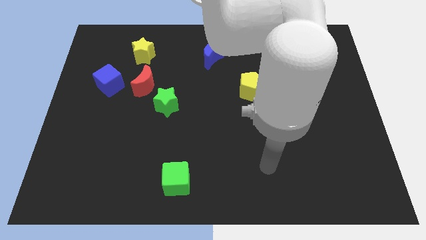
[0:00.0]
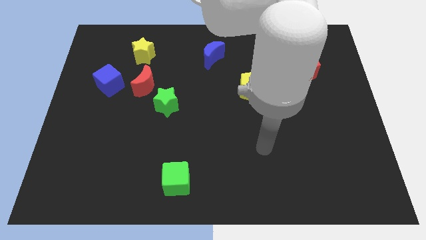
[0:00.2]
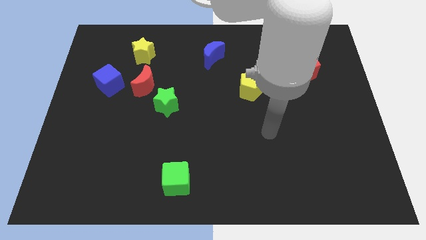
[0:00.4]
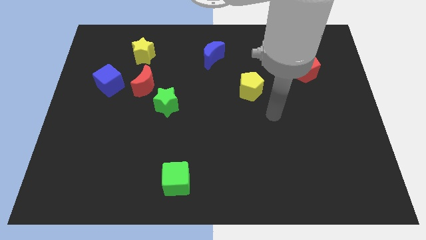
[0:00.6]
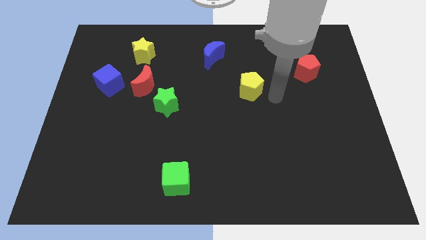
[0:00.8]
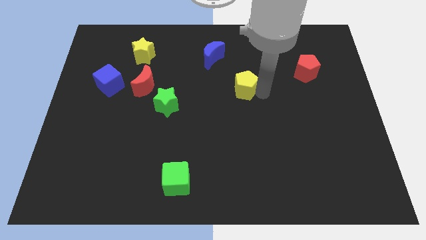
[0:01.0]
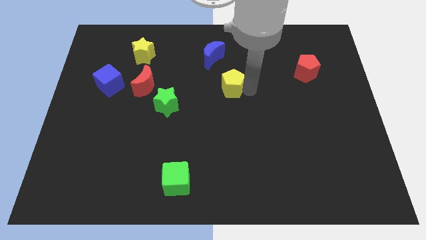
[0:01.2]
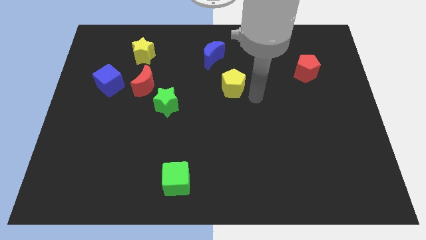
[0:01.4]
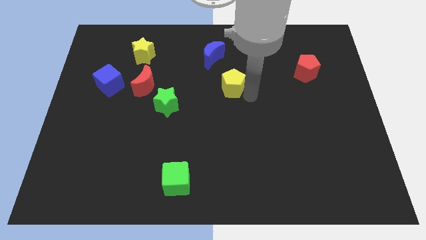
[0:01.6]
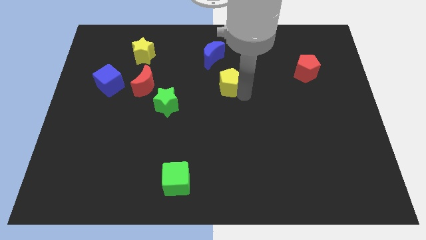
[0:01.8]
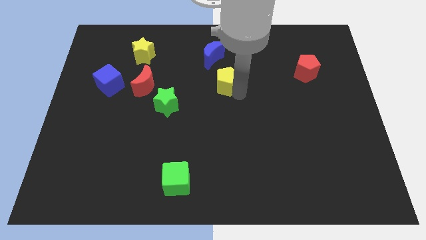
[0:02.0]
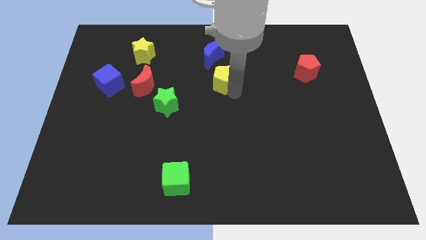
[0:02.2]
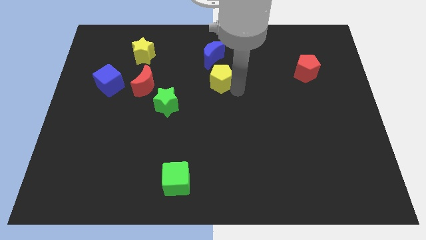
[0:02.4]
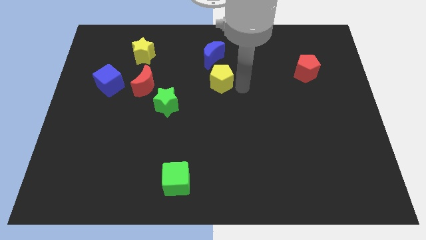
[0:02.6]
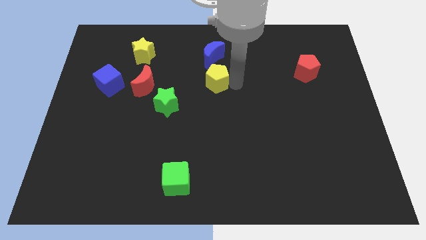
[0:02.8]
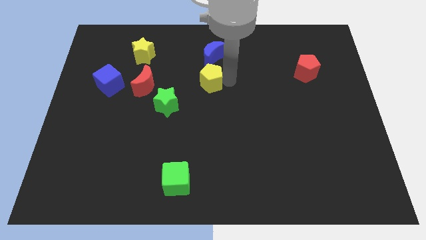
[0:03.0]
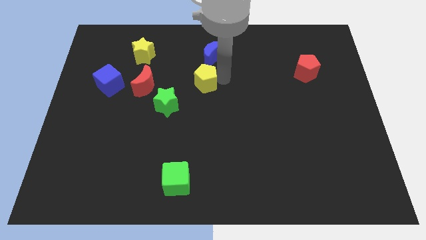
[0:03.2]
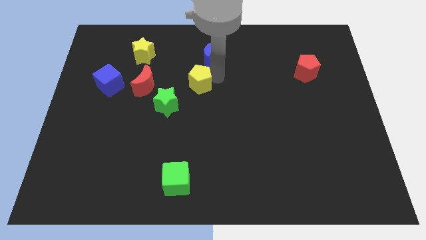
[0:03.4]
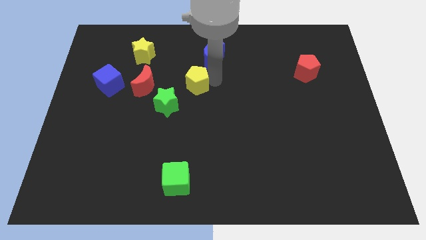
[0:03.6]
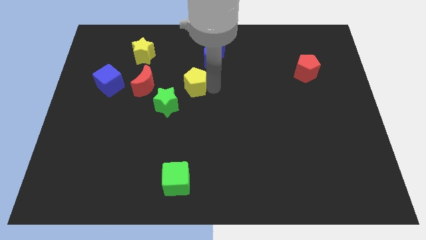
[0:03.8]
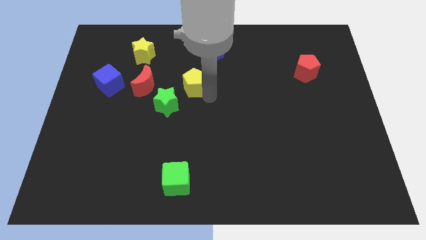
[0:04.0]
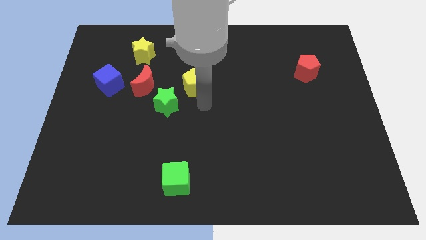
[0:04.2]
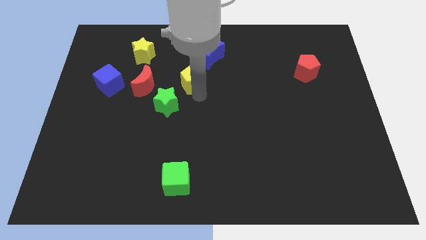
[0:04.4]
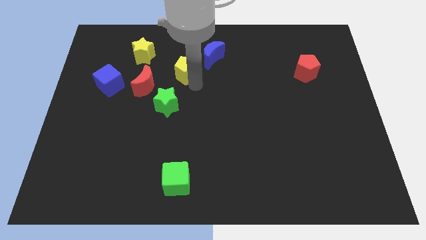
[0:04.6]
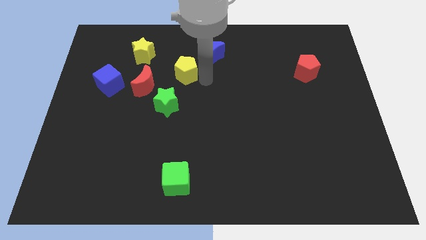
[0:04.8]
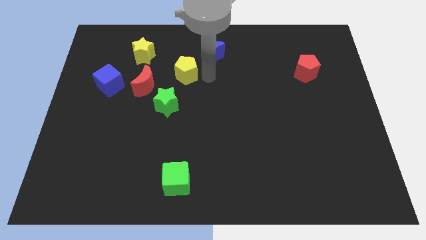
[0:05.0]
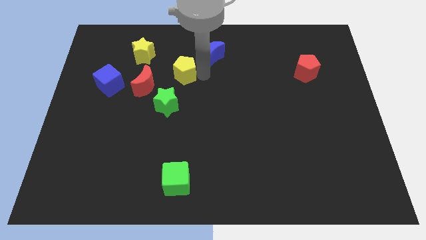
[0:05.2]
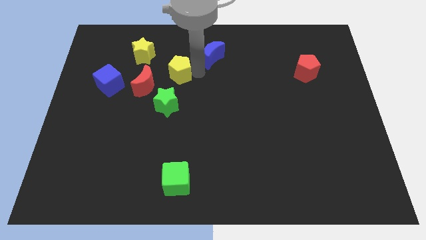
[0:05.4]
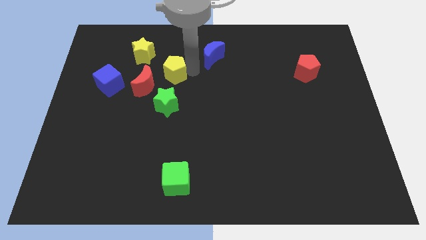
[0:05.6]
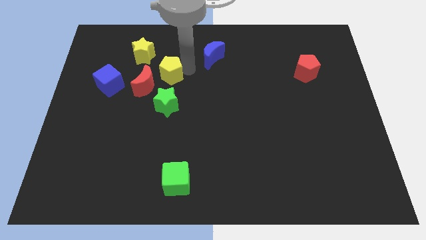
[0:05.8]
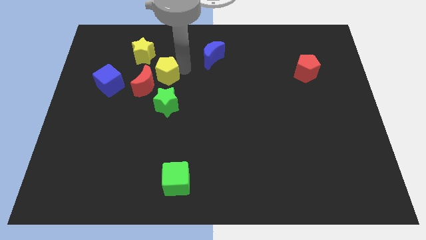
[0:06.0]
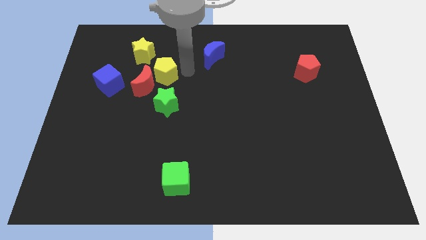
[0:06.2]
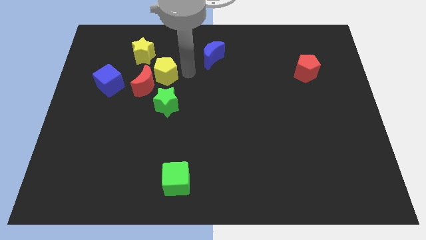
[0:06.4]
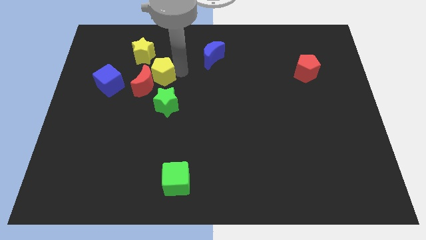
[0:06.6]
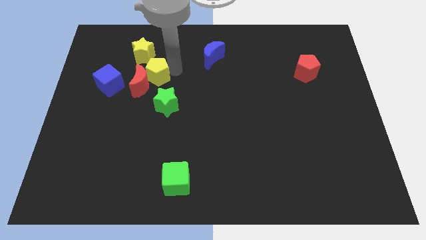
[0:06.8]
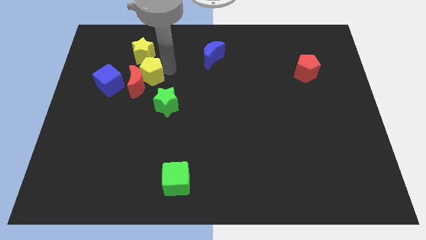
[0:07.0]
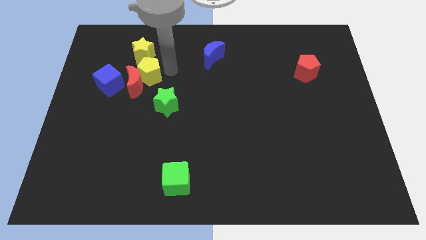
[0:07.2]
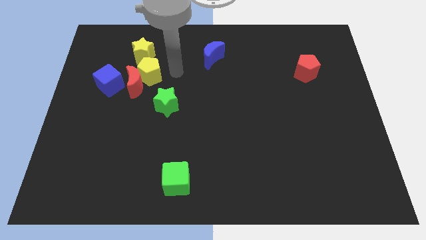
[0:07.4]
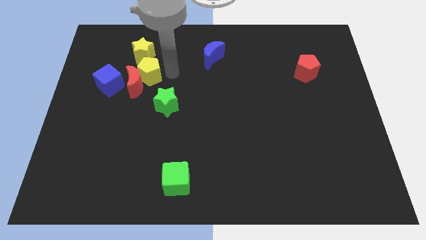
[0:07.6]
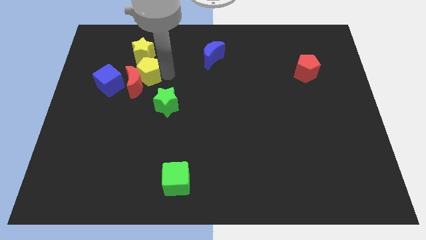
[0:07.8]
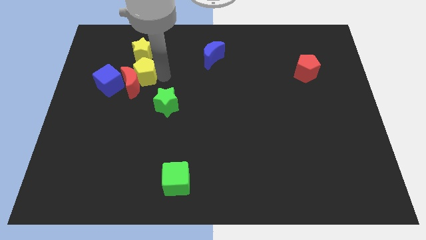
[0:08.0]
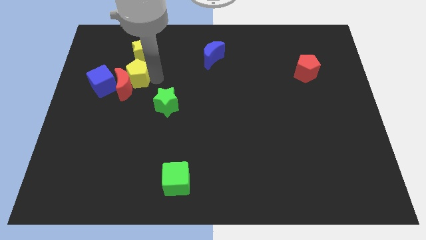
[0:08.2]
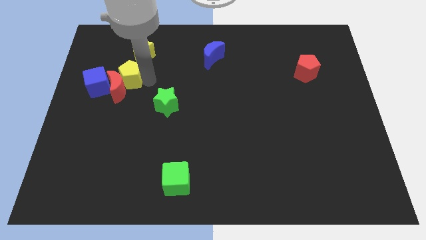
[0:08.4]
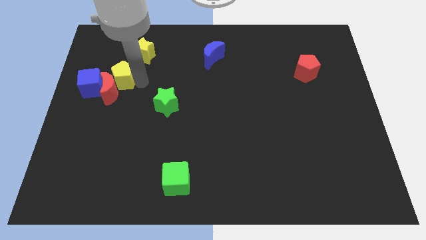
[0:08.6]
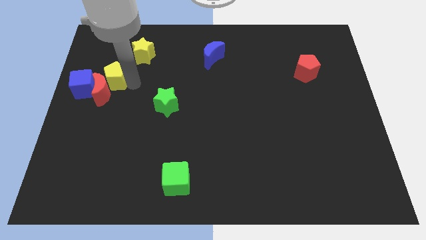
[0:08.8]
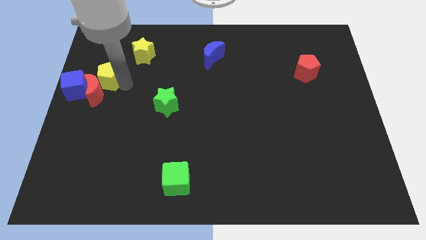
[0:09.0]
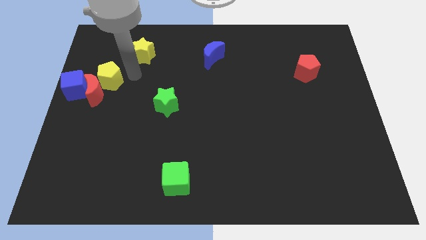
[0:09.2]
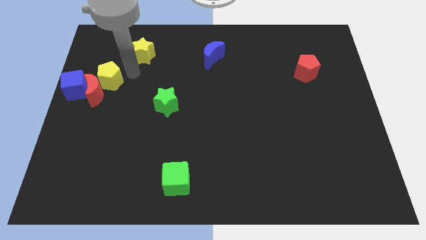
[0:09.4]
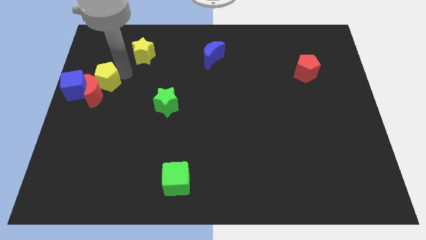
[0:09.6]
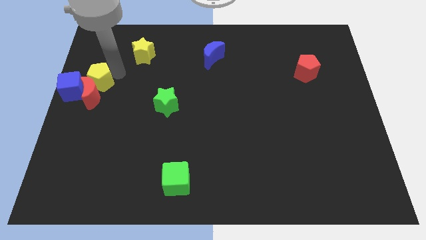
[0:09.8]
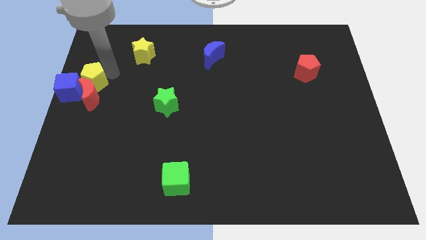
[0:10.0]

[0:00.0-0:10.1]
push the yellow pentagon close to the blue cube

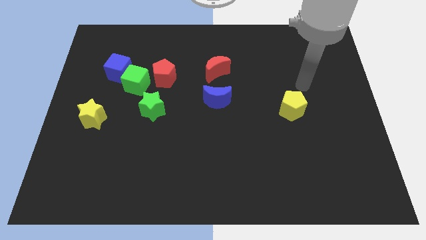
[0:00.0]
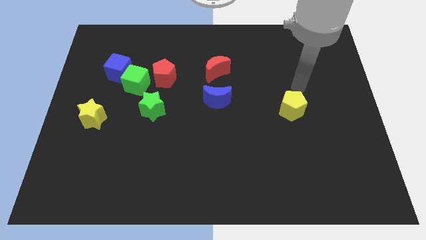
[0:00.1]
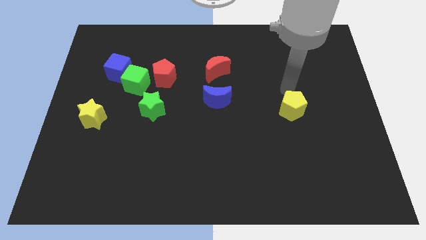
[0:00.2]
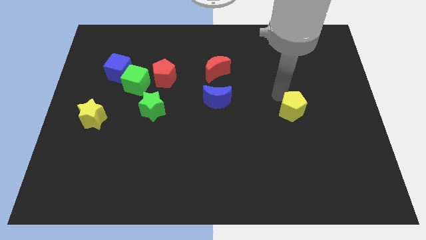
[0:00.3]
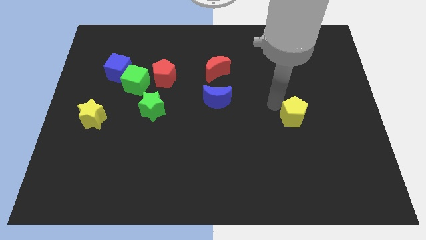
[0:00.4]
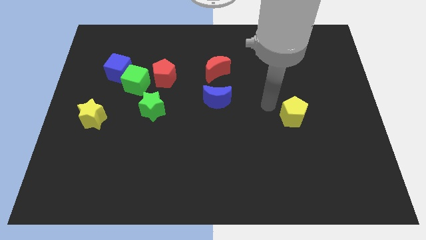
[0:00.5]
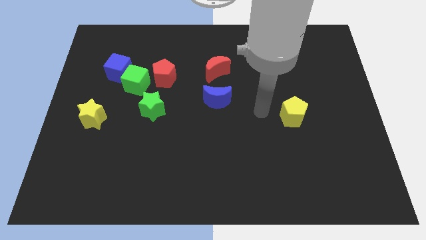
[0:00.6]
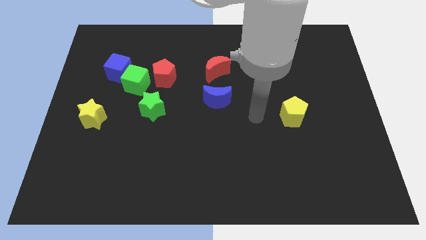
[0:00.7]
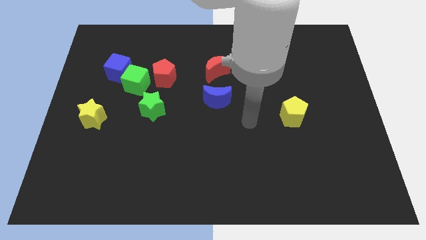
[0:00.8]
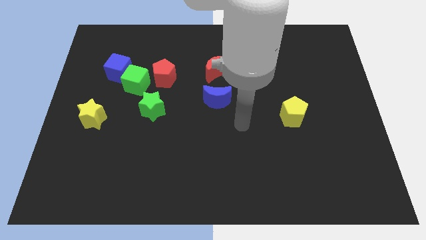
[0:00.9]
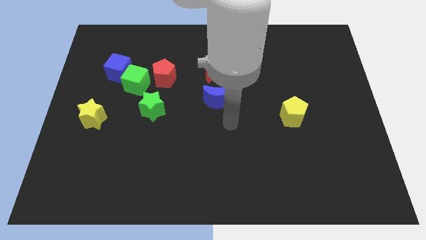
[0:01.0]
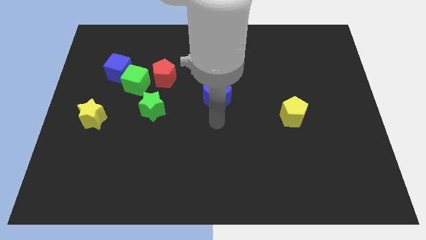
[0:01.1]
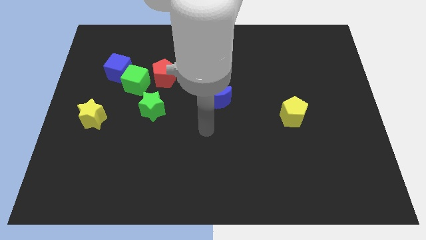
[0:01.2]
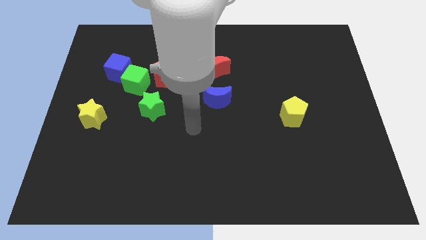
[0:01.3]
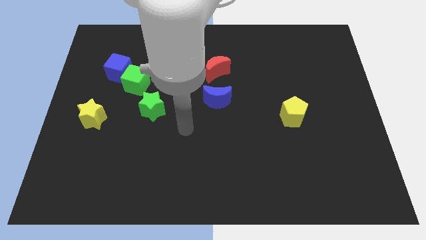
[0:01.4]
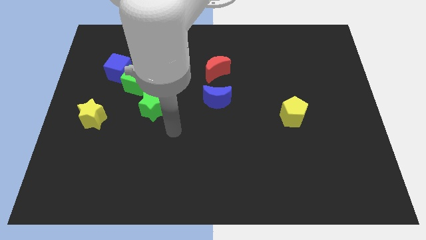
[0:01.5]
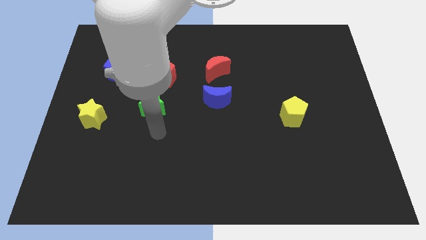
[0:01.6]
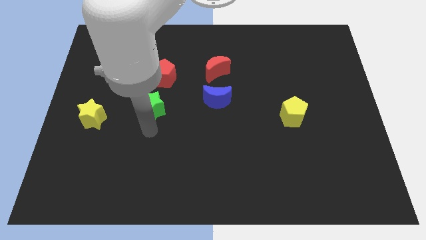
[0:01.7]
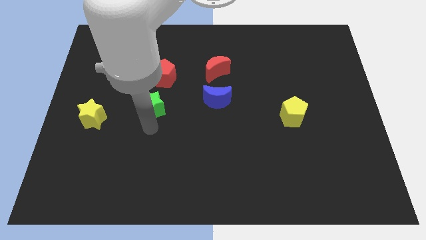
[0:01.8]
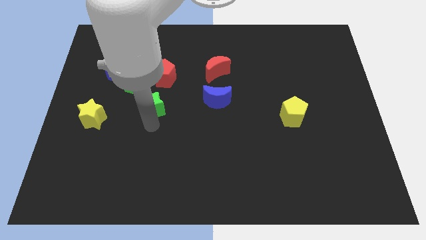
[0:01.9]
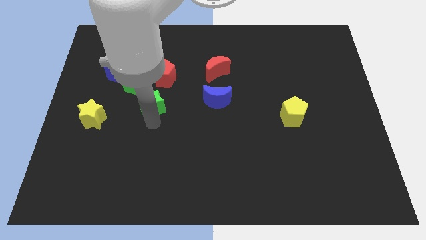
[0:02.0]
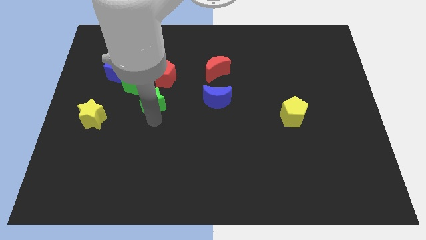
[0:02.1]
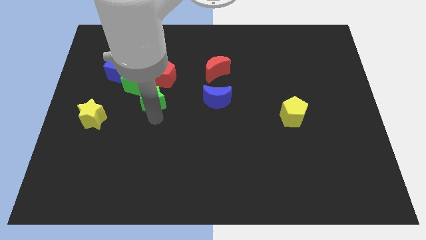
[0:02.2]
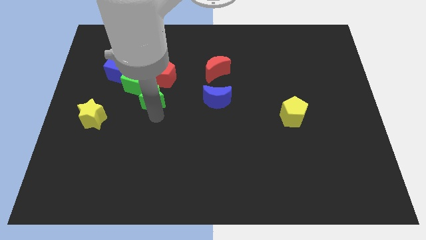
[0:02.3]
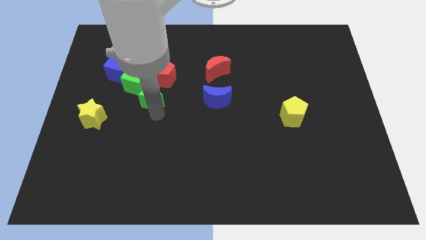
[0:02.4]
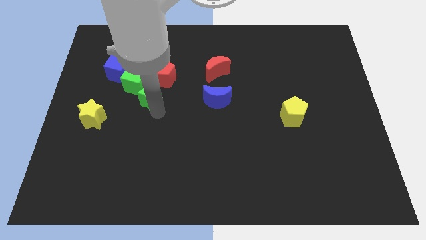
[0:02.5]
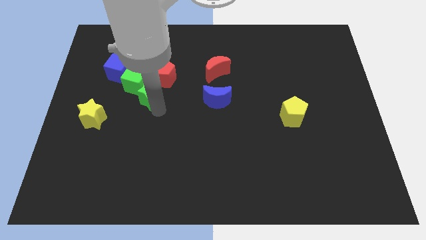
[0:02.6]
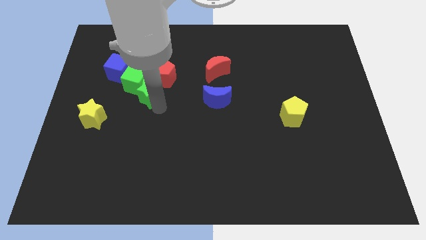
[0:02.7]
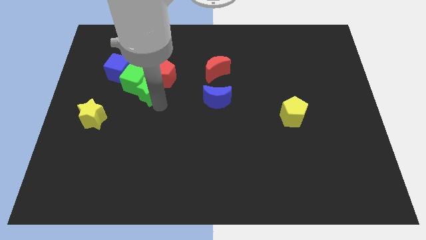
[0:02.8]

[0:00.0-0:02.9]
put the green star next to the red pentagon
